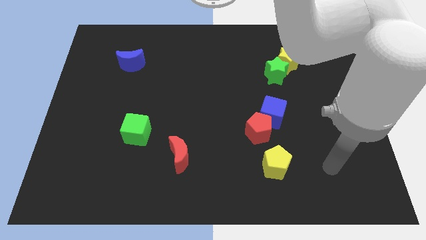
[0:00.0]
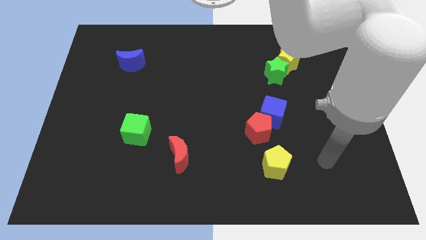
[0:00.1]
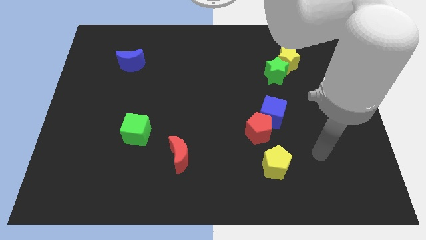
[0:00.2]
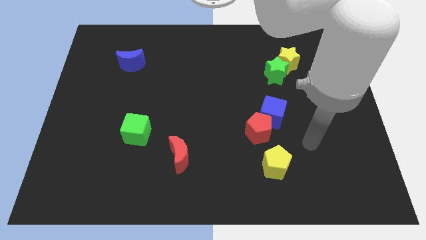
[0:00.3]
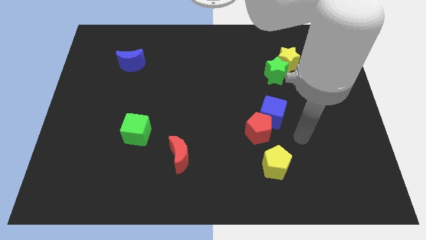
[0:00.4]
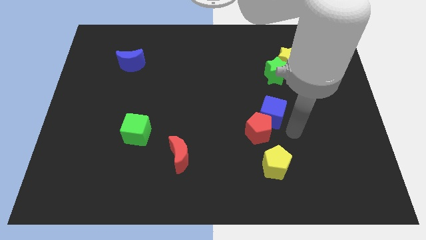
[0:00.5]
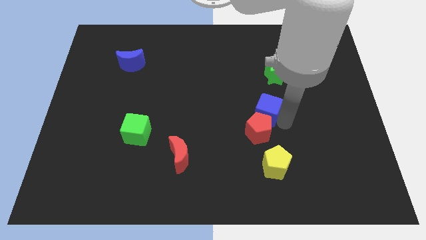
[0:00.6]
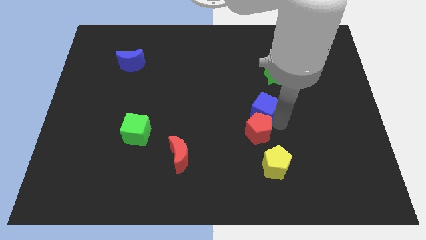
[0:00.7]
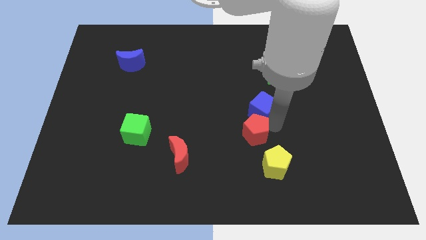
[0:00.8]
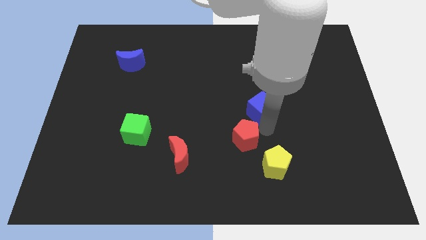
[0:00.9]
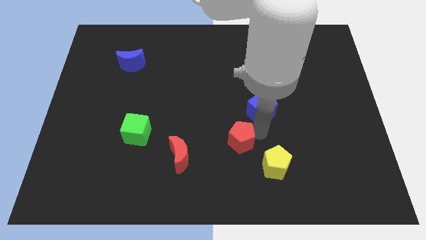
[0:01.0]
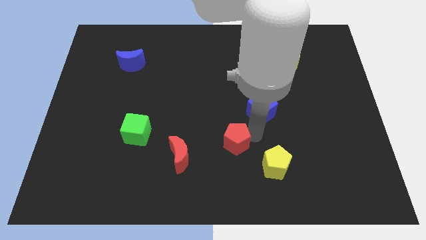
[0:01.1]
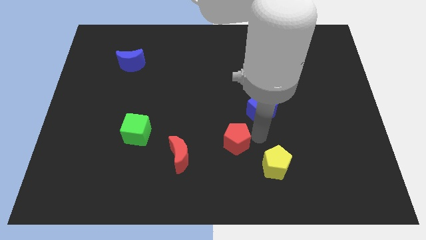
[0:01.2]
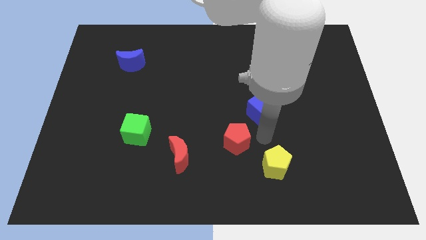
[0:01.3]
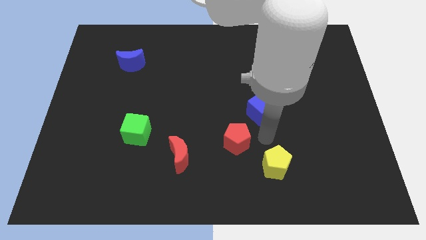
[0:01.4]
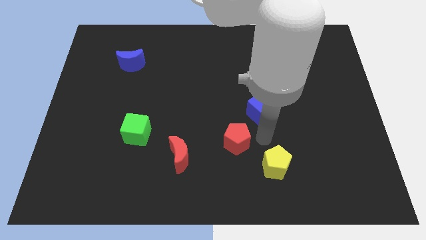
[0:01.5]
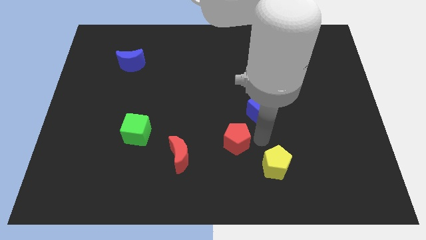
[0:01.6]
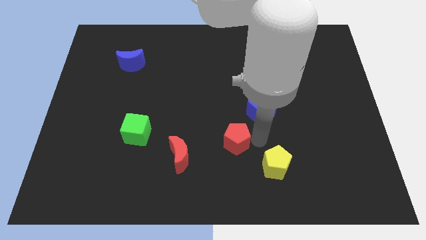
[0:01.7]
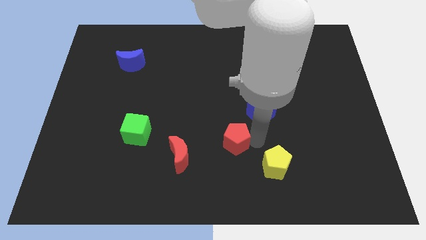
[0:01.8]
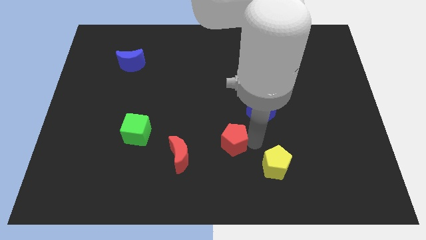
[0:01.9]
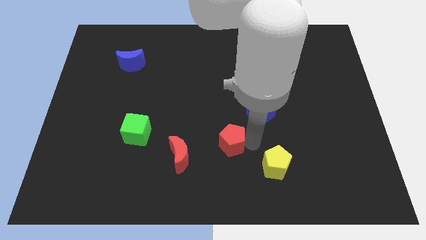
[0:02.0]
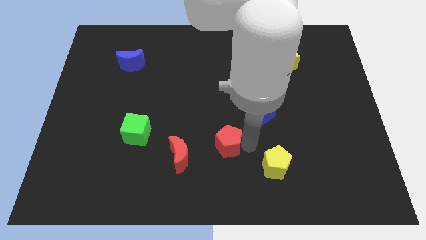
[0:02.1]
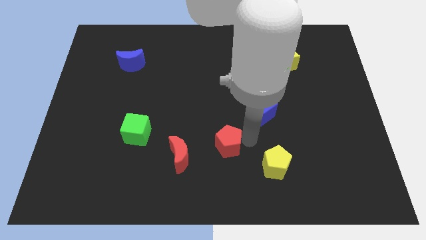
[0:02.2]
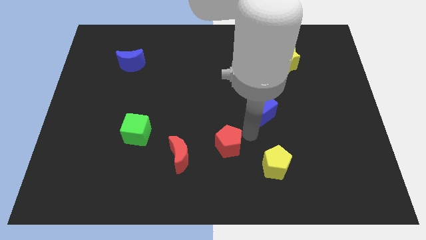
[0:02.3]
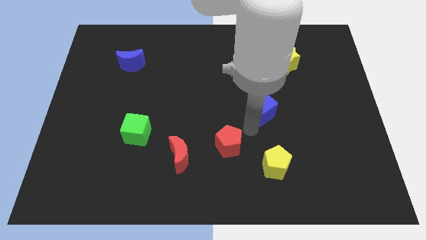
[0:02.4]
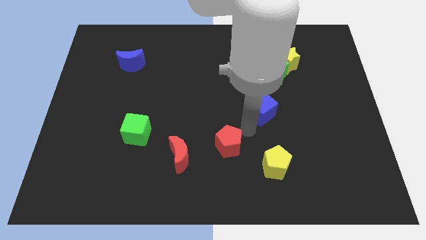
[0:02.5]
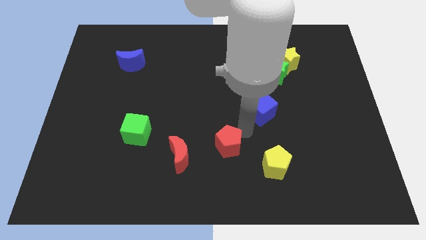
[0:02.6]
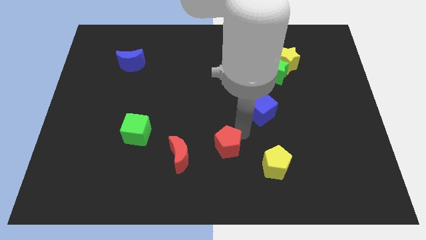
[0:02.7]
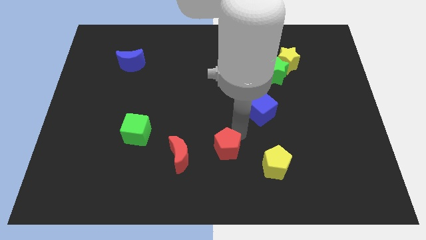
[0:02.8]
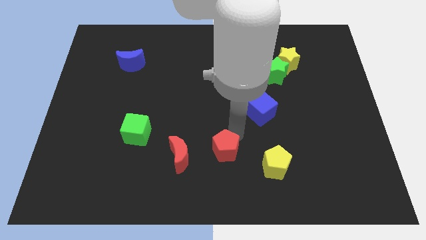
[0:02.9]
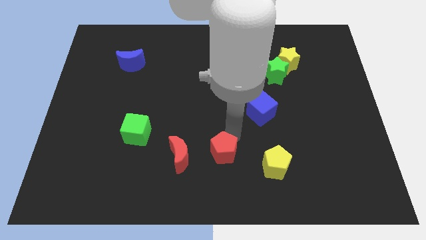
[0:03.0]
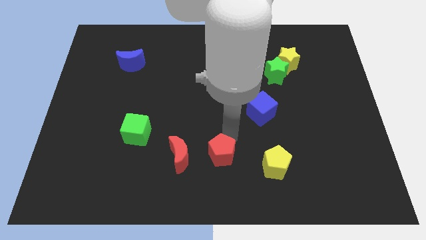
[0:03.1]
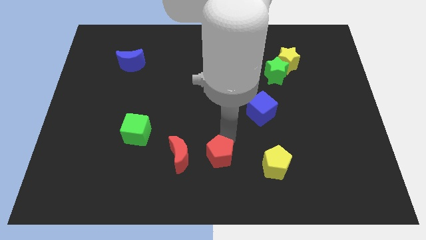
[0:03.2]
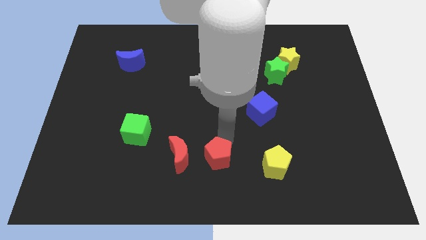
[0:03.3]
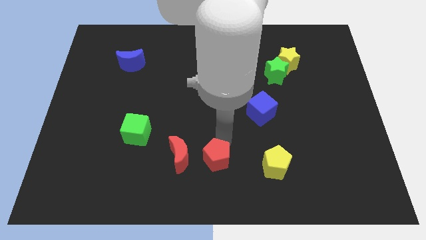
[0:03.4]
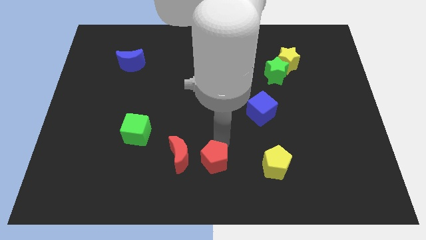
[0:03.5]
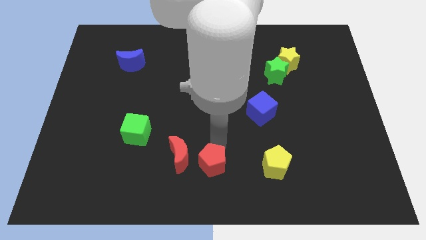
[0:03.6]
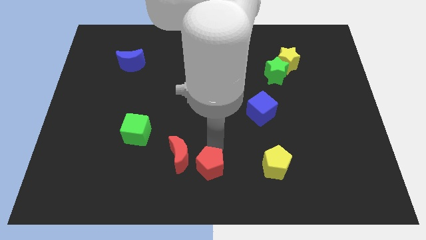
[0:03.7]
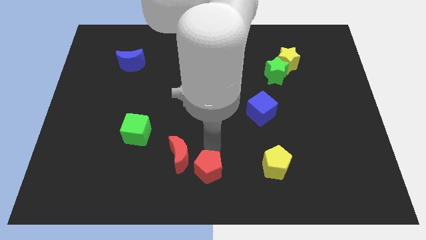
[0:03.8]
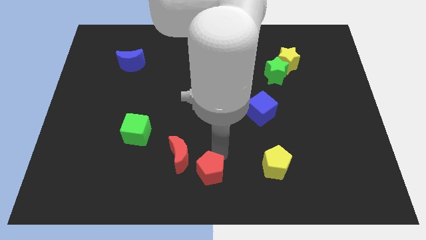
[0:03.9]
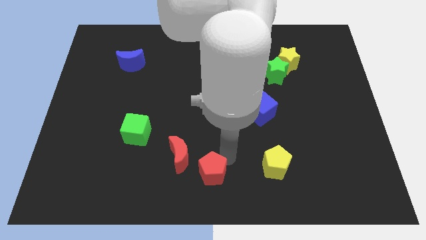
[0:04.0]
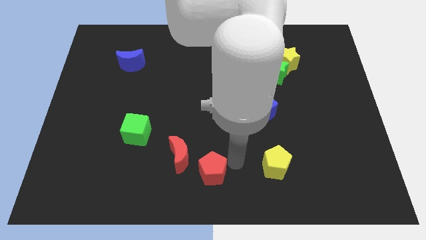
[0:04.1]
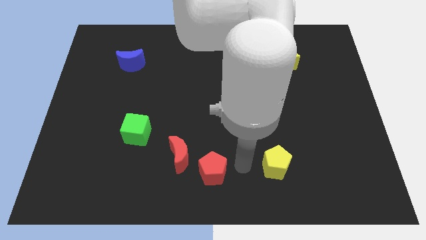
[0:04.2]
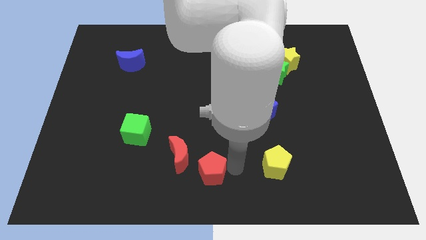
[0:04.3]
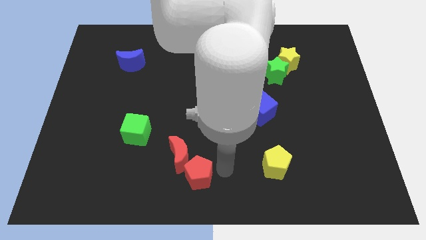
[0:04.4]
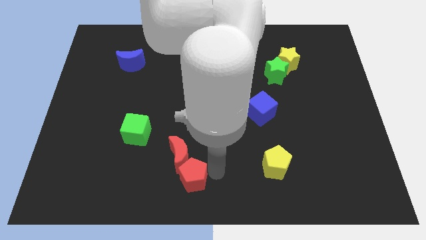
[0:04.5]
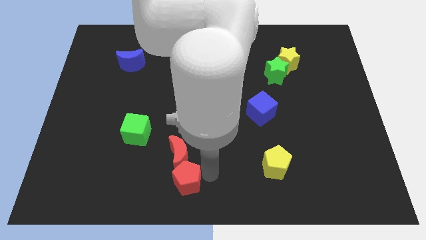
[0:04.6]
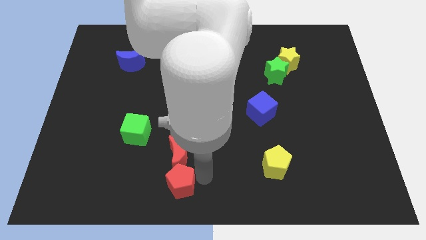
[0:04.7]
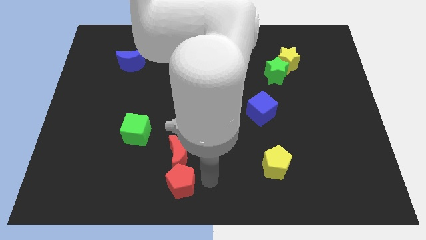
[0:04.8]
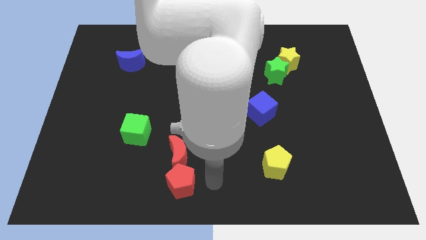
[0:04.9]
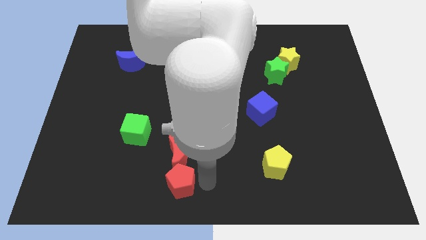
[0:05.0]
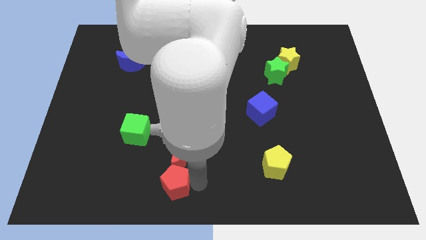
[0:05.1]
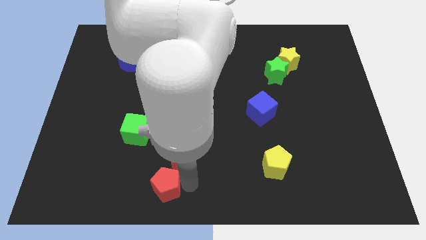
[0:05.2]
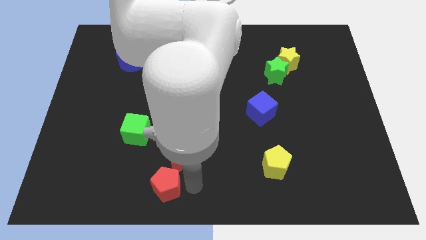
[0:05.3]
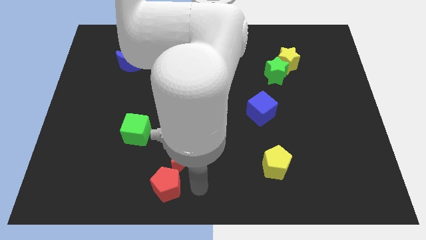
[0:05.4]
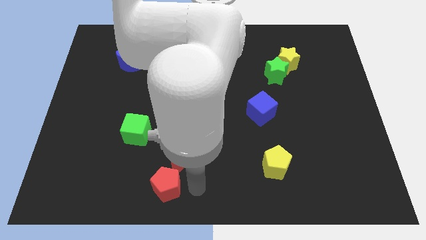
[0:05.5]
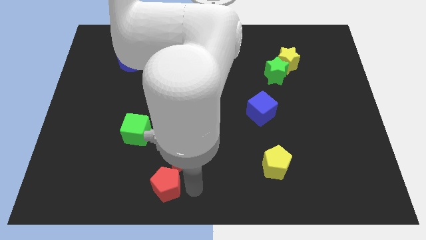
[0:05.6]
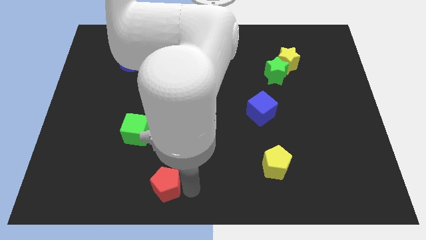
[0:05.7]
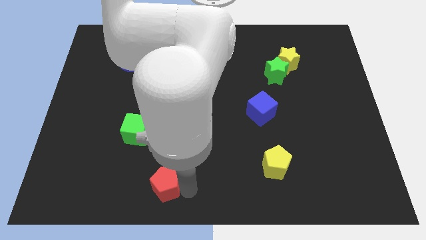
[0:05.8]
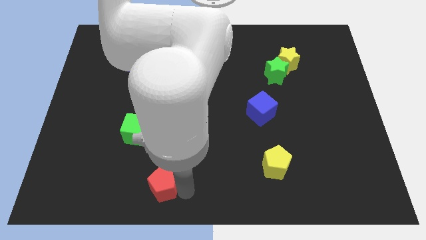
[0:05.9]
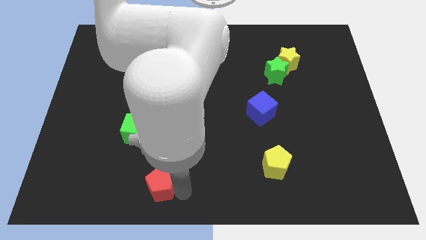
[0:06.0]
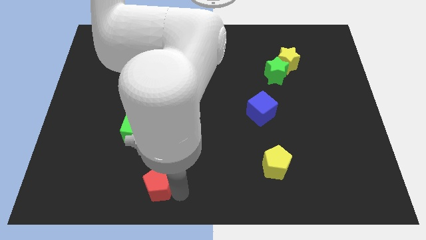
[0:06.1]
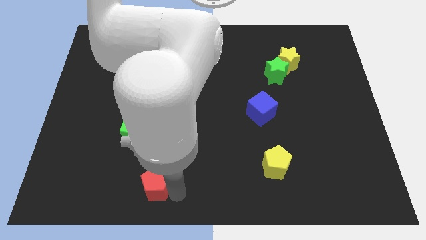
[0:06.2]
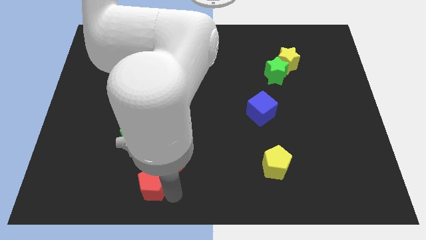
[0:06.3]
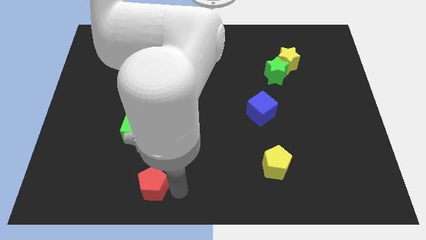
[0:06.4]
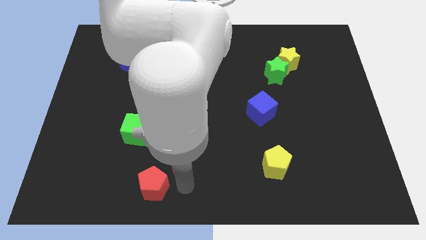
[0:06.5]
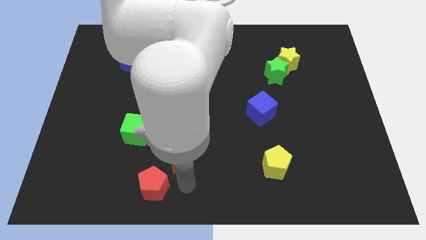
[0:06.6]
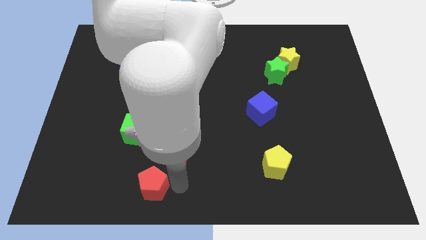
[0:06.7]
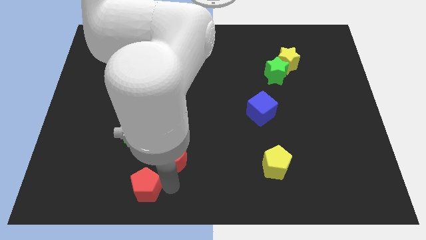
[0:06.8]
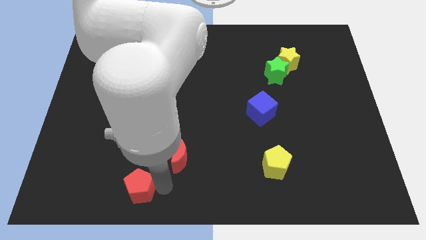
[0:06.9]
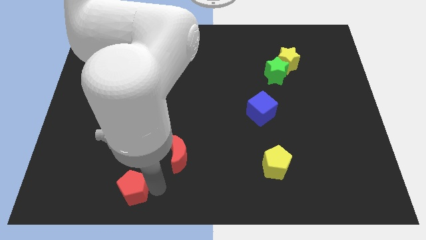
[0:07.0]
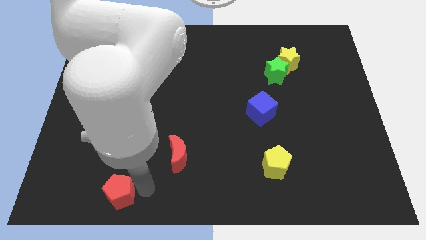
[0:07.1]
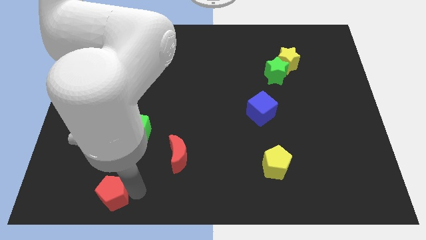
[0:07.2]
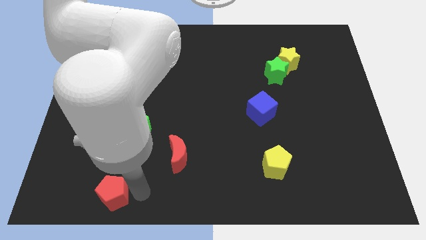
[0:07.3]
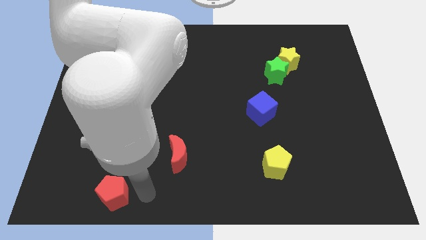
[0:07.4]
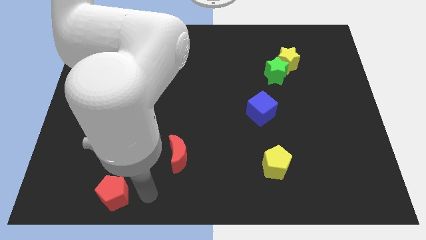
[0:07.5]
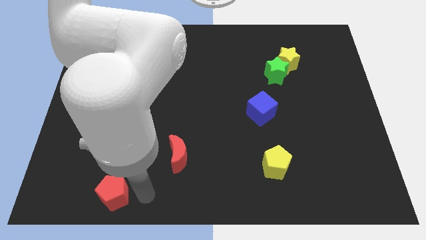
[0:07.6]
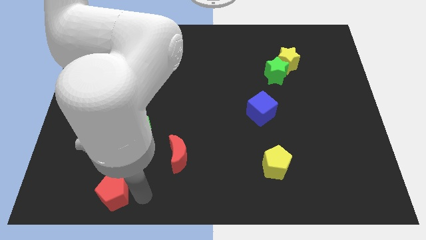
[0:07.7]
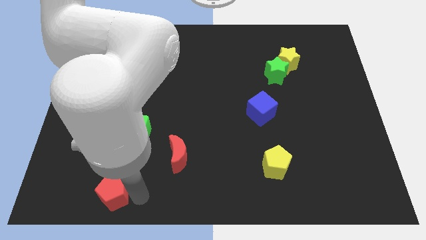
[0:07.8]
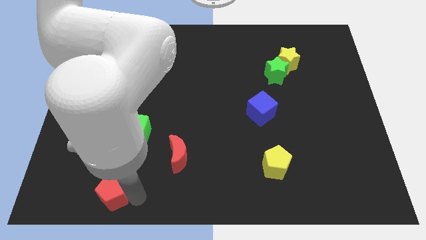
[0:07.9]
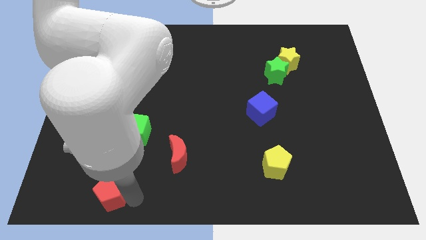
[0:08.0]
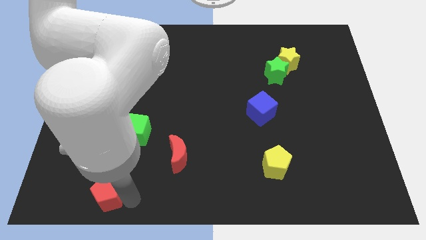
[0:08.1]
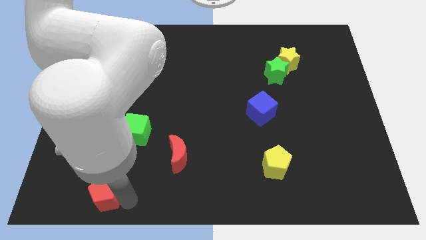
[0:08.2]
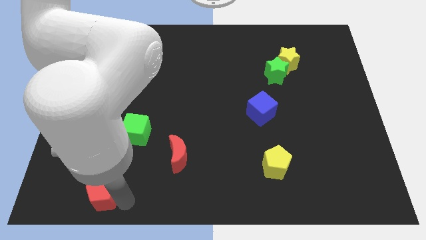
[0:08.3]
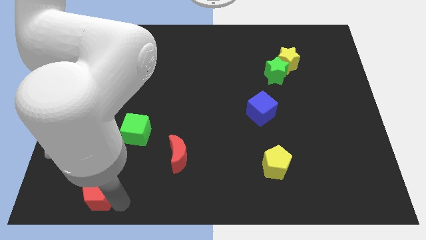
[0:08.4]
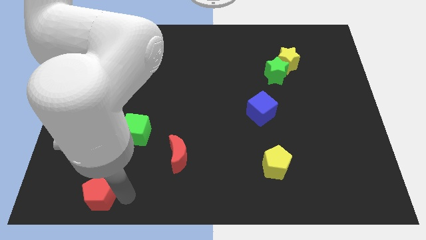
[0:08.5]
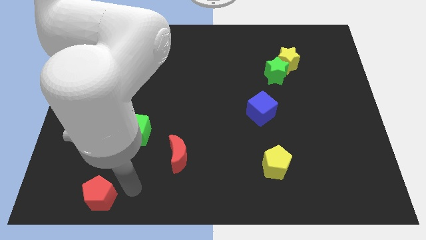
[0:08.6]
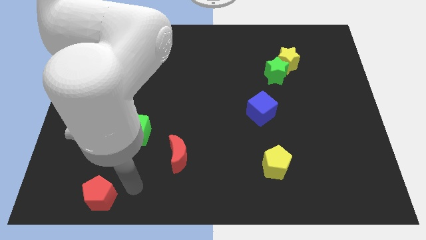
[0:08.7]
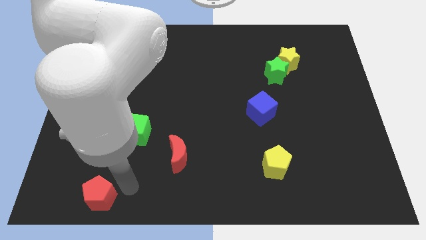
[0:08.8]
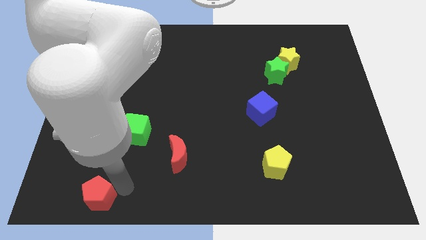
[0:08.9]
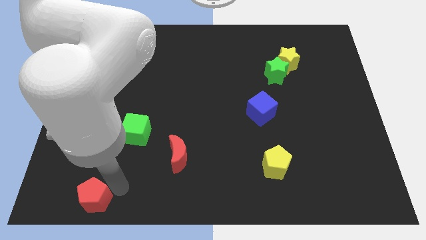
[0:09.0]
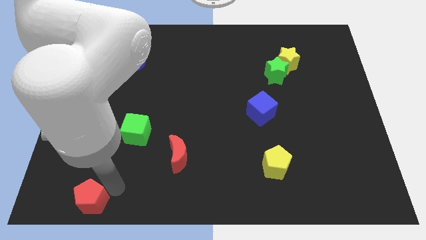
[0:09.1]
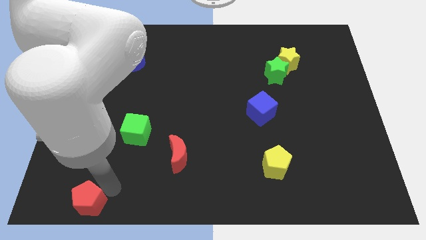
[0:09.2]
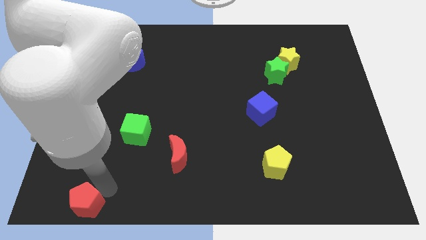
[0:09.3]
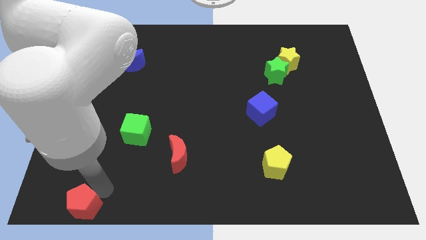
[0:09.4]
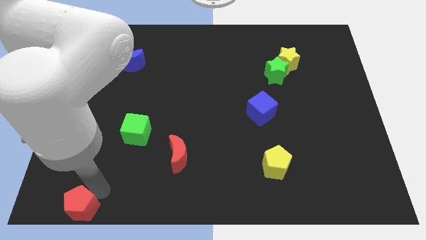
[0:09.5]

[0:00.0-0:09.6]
move the red pentagon to the bottom left of the board
